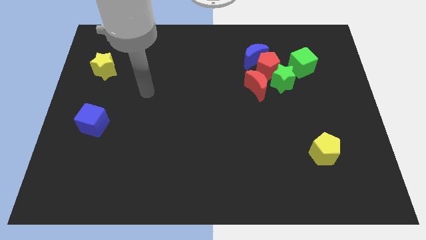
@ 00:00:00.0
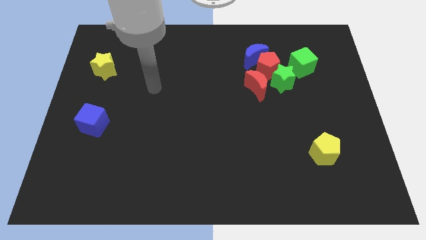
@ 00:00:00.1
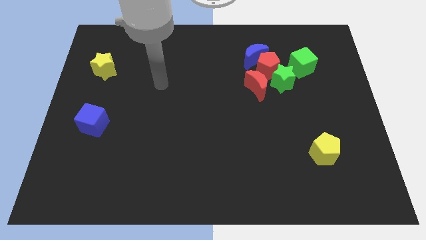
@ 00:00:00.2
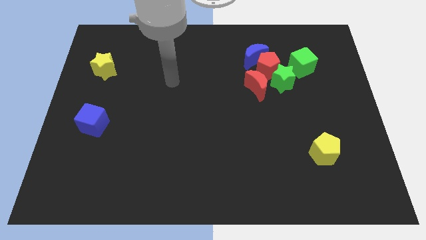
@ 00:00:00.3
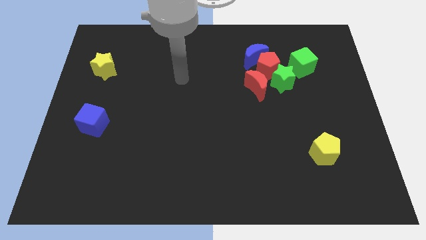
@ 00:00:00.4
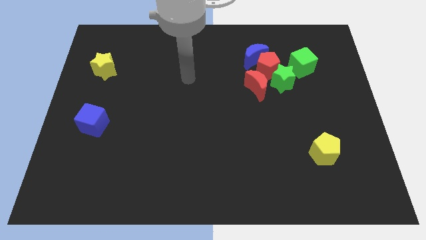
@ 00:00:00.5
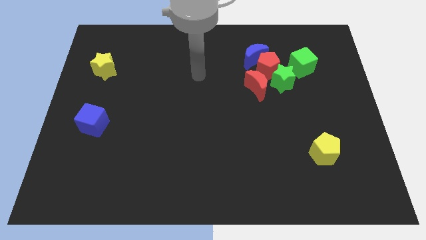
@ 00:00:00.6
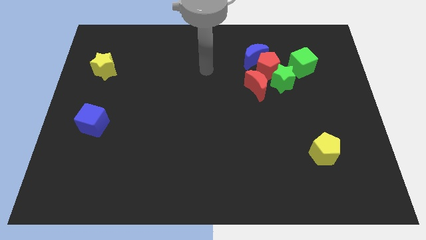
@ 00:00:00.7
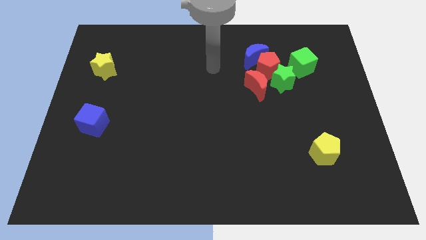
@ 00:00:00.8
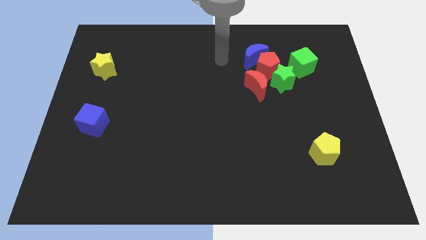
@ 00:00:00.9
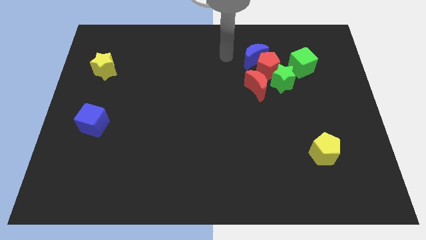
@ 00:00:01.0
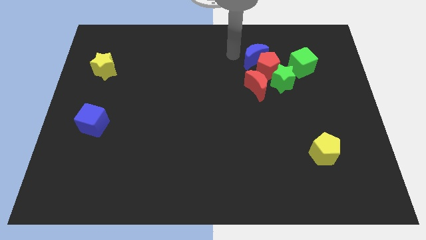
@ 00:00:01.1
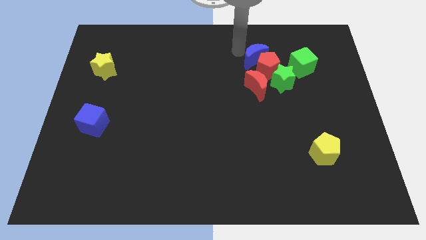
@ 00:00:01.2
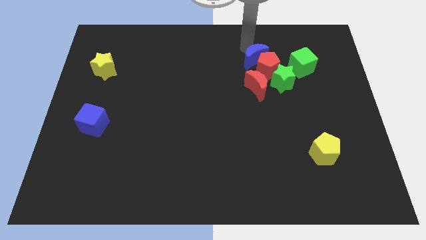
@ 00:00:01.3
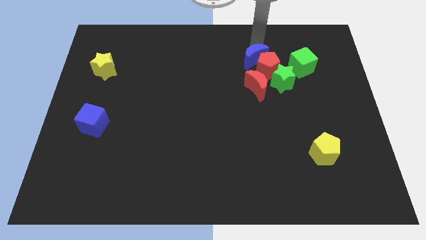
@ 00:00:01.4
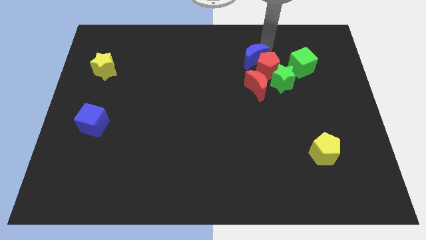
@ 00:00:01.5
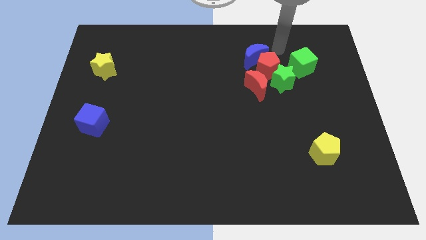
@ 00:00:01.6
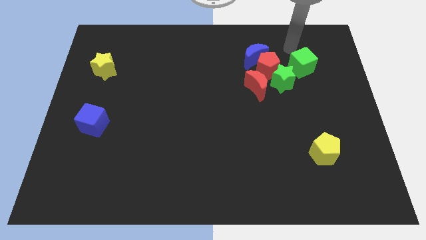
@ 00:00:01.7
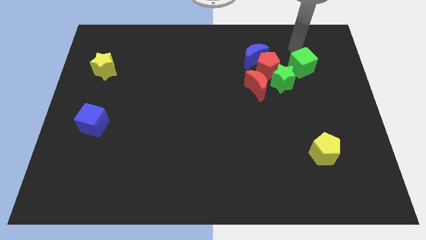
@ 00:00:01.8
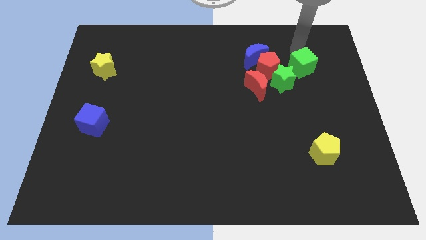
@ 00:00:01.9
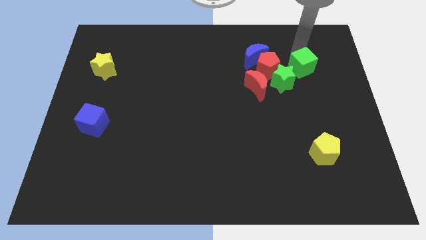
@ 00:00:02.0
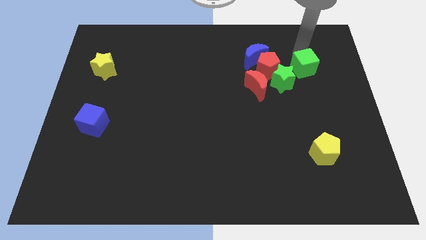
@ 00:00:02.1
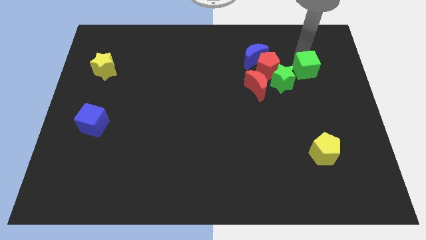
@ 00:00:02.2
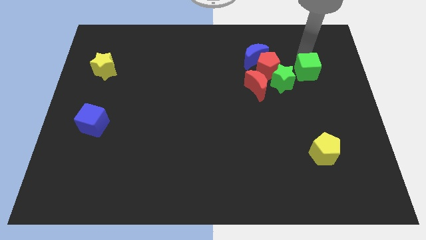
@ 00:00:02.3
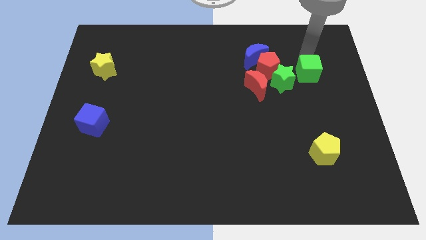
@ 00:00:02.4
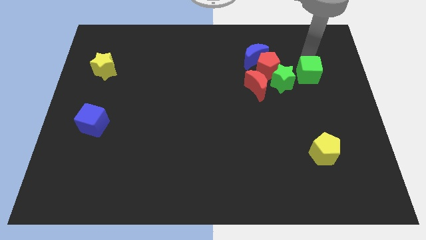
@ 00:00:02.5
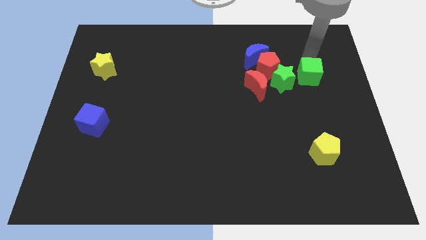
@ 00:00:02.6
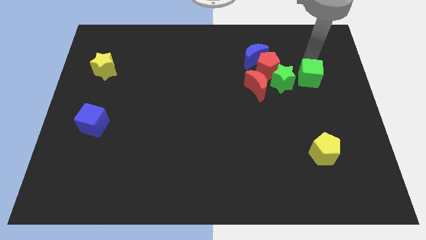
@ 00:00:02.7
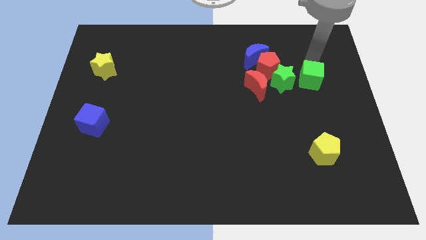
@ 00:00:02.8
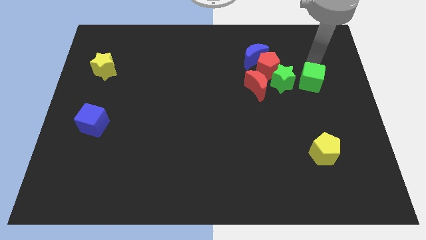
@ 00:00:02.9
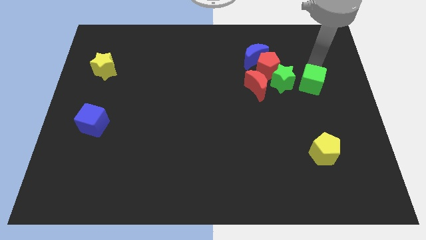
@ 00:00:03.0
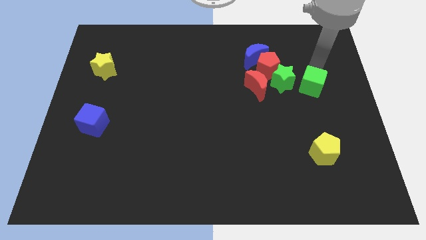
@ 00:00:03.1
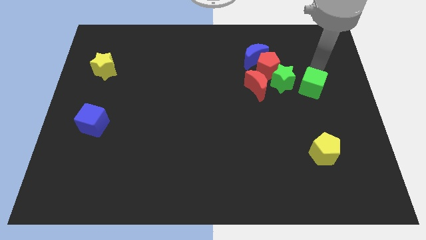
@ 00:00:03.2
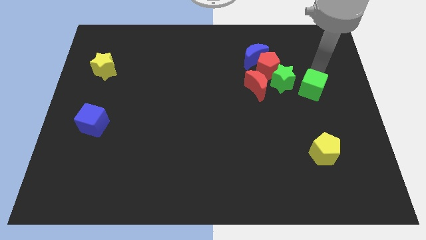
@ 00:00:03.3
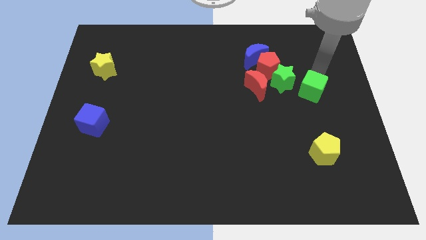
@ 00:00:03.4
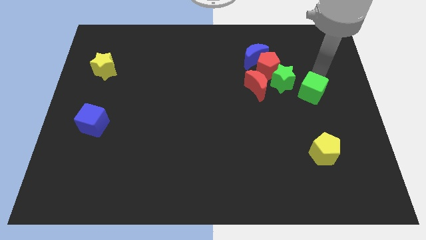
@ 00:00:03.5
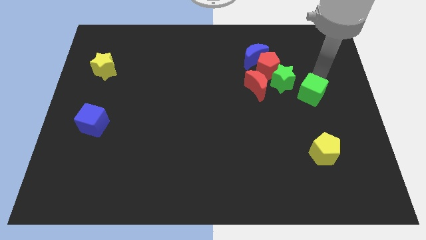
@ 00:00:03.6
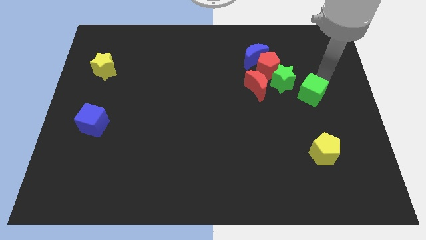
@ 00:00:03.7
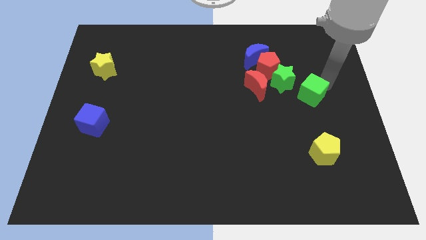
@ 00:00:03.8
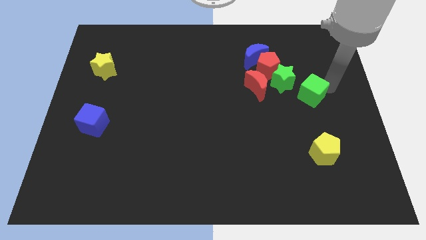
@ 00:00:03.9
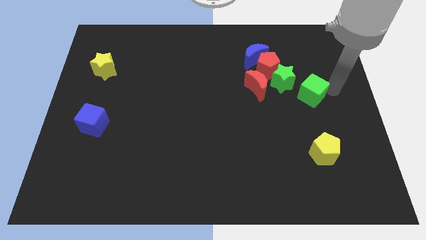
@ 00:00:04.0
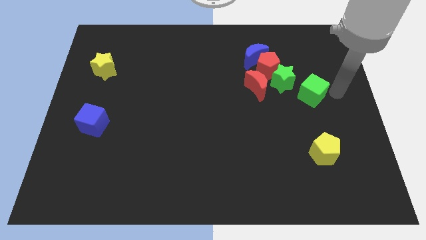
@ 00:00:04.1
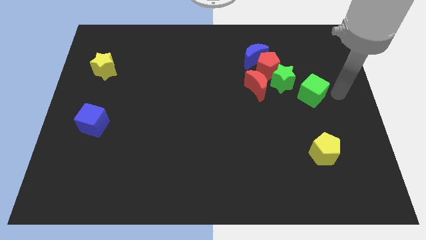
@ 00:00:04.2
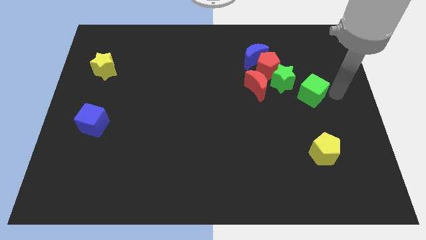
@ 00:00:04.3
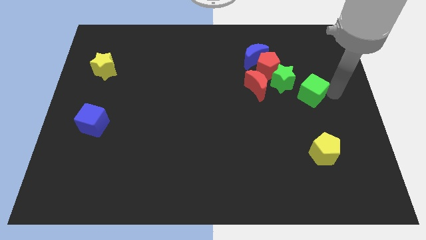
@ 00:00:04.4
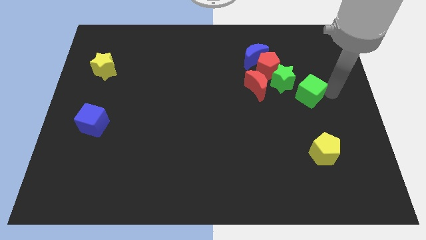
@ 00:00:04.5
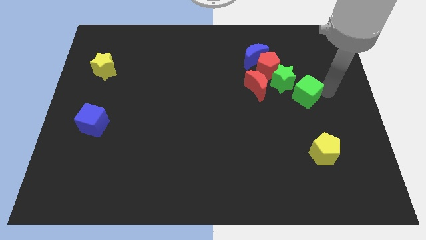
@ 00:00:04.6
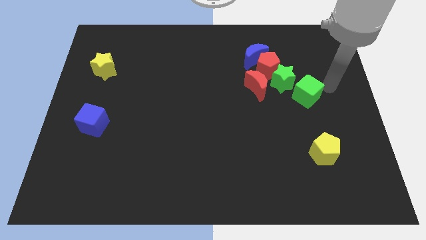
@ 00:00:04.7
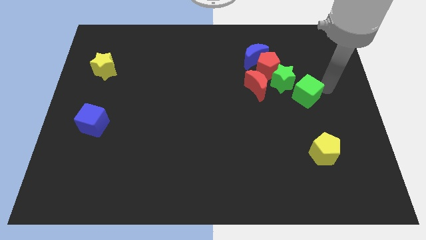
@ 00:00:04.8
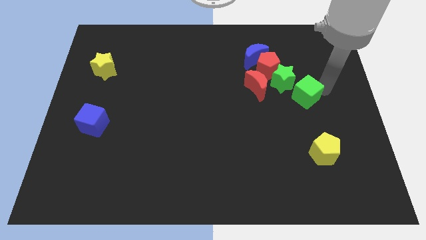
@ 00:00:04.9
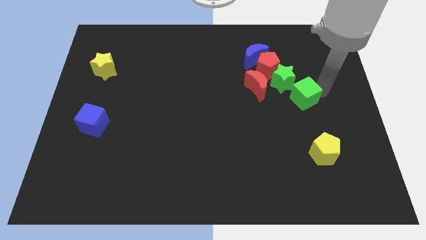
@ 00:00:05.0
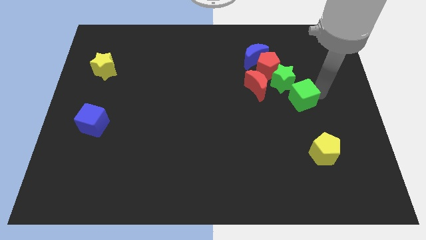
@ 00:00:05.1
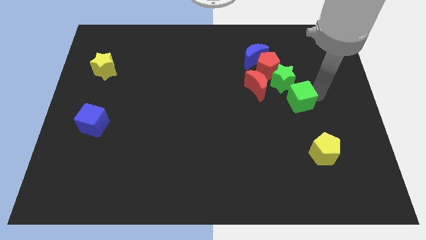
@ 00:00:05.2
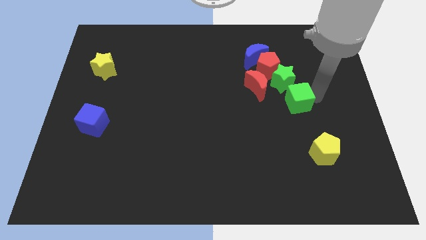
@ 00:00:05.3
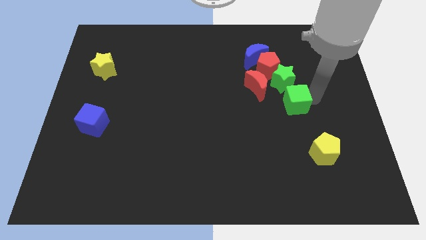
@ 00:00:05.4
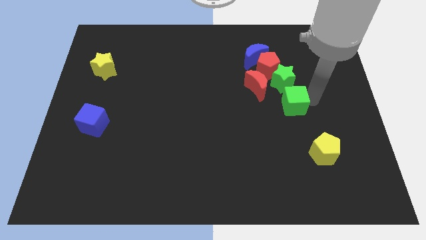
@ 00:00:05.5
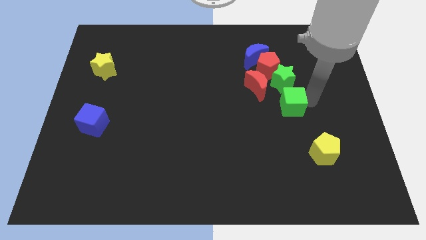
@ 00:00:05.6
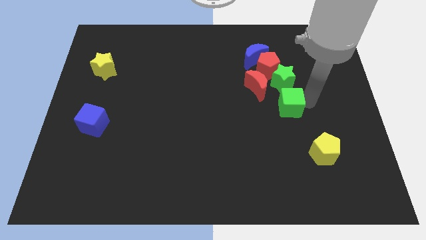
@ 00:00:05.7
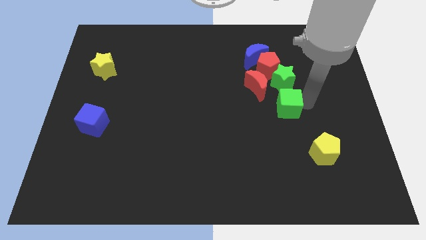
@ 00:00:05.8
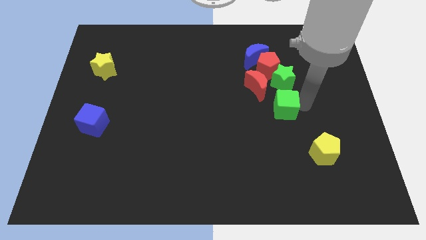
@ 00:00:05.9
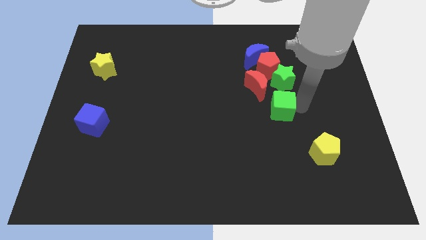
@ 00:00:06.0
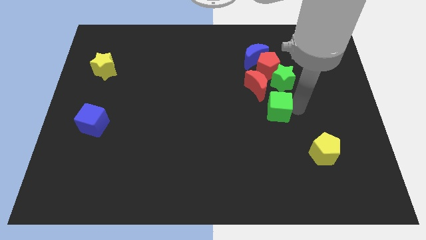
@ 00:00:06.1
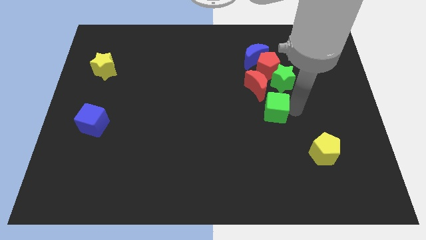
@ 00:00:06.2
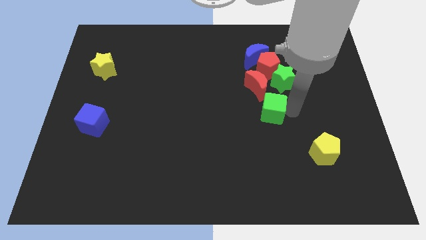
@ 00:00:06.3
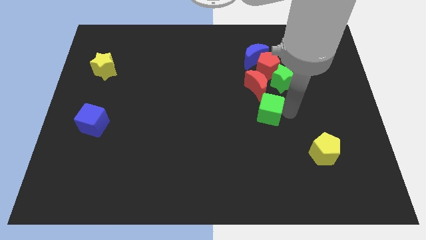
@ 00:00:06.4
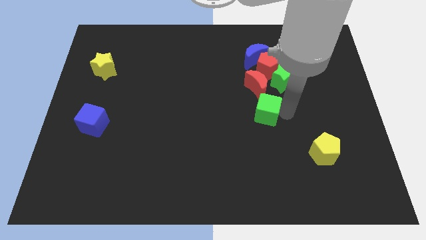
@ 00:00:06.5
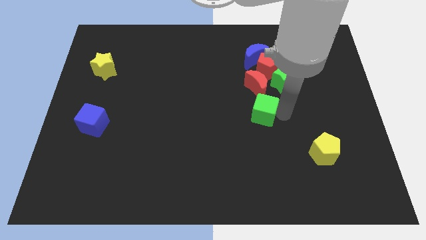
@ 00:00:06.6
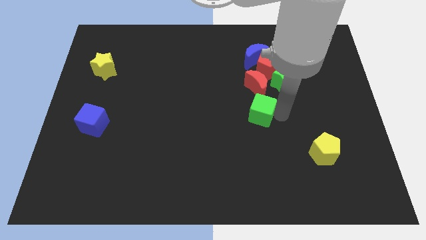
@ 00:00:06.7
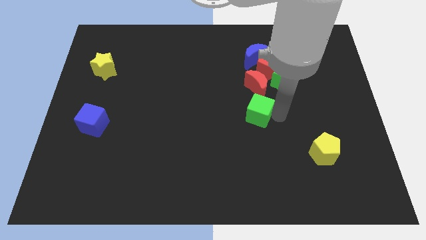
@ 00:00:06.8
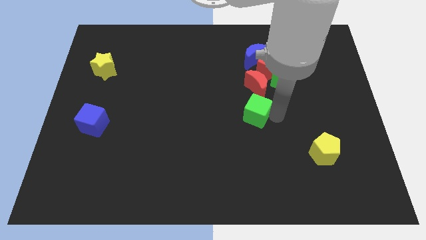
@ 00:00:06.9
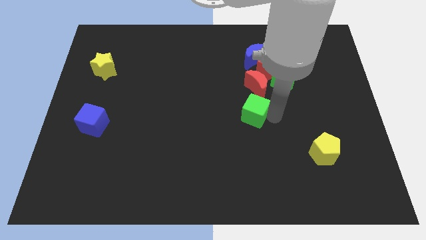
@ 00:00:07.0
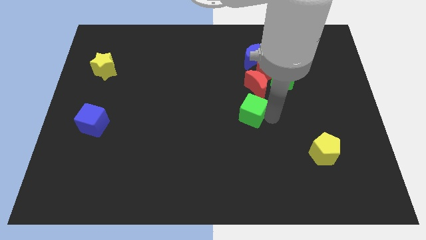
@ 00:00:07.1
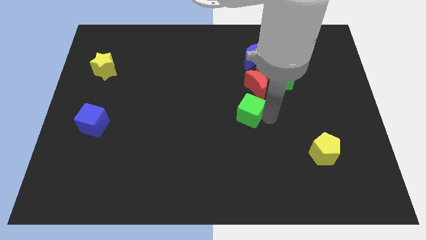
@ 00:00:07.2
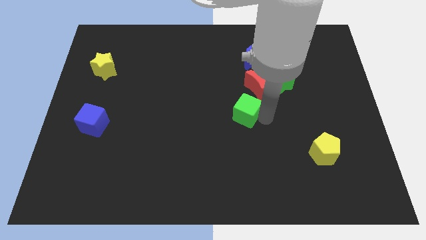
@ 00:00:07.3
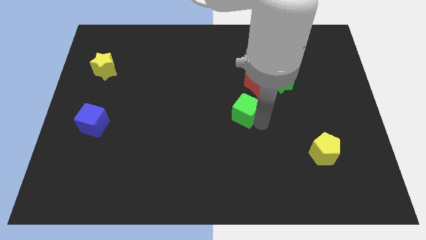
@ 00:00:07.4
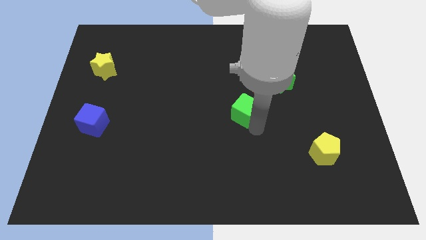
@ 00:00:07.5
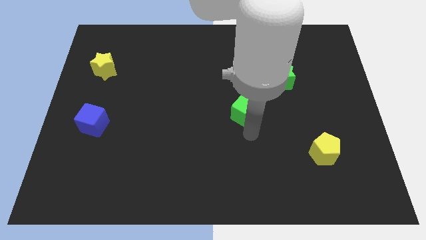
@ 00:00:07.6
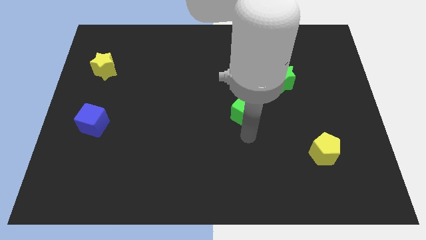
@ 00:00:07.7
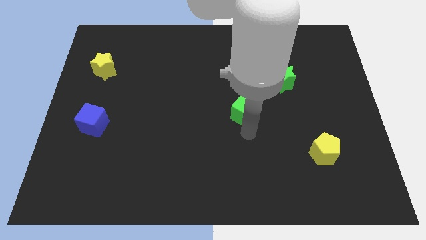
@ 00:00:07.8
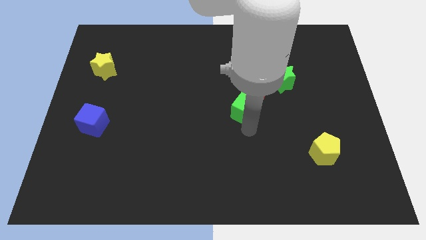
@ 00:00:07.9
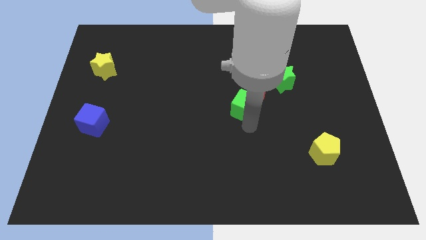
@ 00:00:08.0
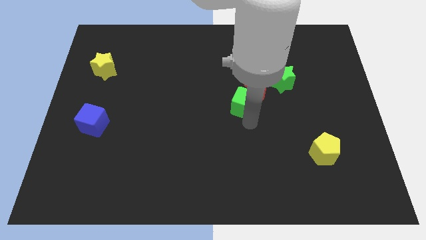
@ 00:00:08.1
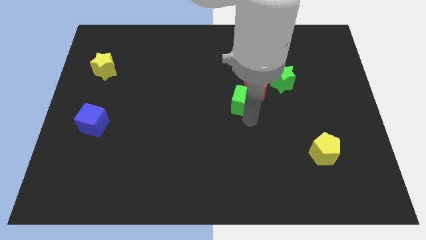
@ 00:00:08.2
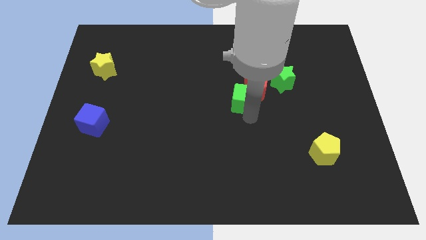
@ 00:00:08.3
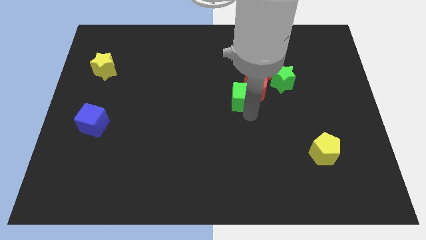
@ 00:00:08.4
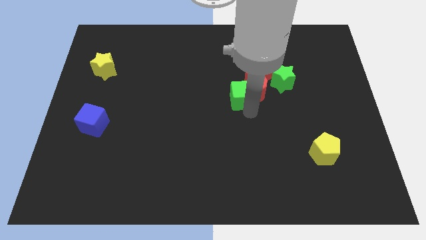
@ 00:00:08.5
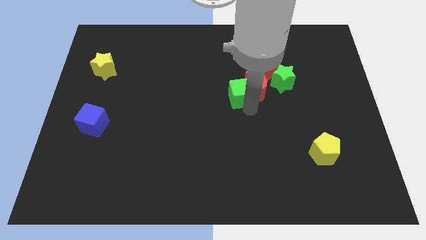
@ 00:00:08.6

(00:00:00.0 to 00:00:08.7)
put the green cube left of the green star
